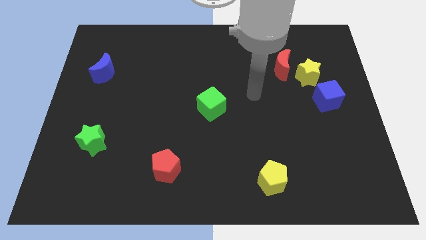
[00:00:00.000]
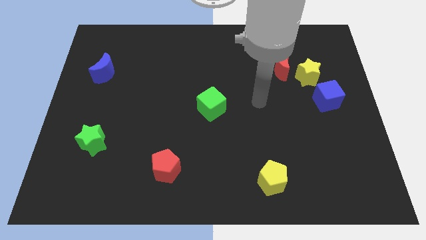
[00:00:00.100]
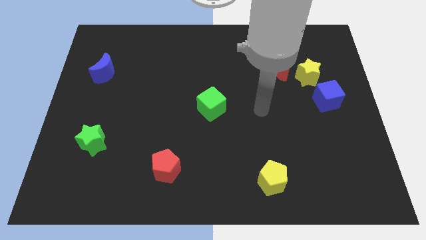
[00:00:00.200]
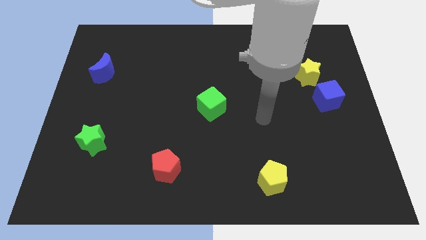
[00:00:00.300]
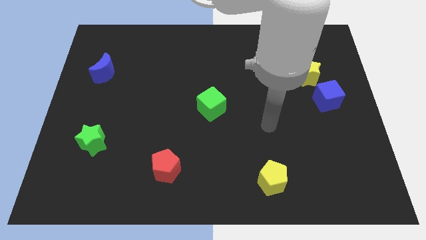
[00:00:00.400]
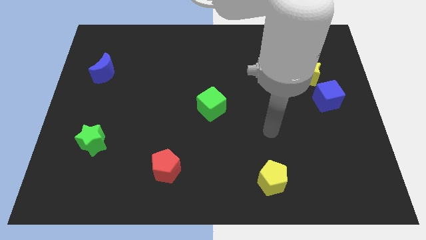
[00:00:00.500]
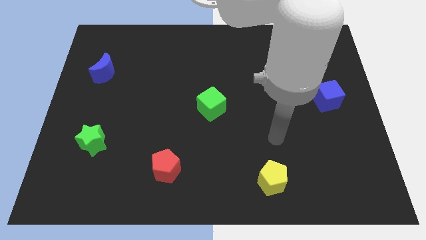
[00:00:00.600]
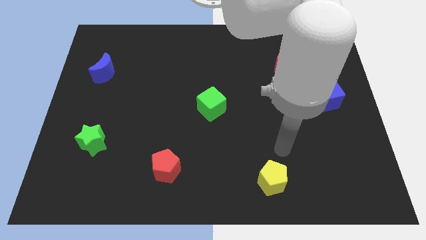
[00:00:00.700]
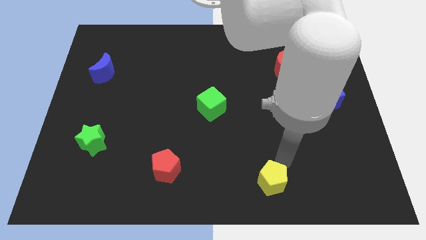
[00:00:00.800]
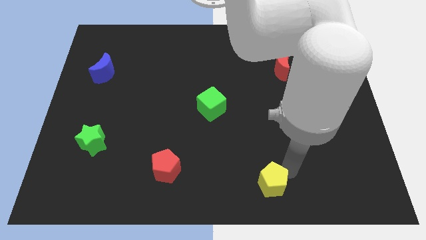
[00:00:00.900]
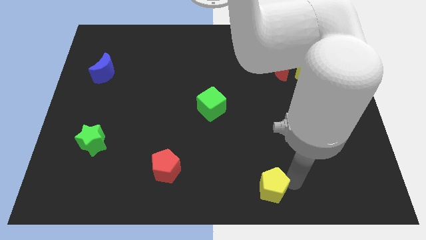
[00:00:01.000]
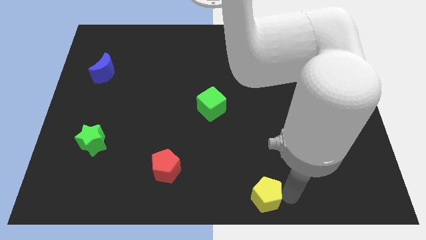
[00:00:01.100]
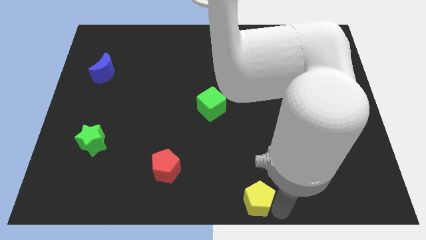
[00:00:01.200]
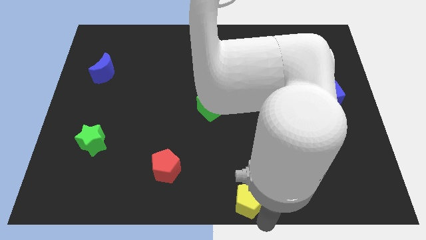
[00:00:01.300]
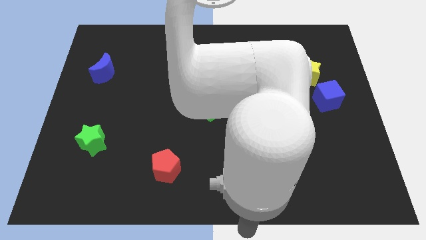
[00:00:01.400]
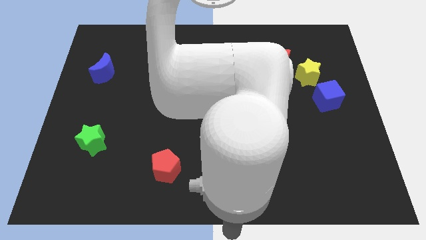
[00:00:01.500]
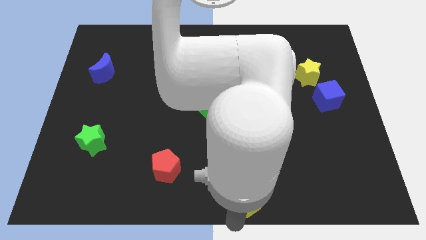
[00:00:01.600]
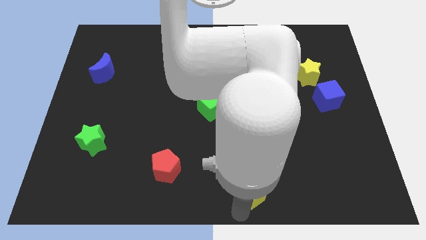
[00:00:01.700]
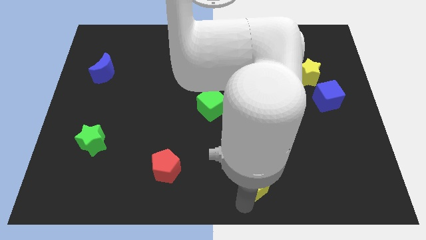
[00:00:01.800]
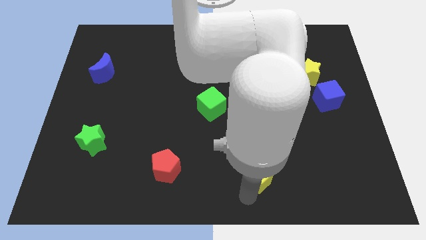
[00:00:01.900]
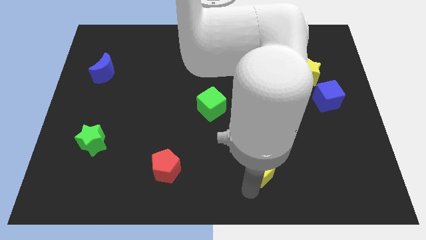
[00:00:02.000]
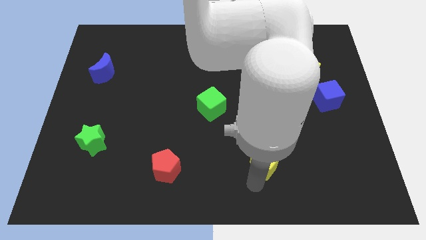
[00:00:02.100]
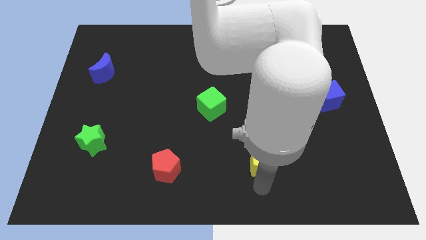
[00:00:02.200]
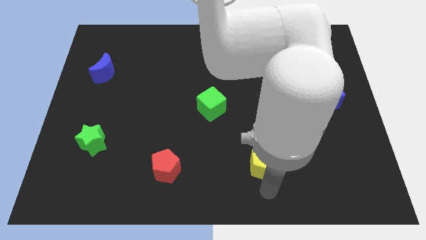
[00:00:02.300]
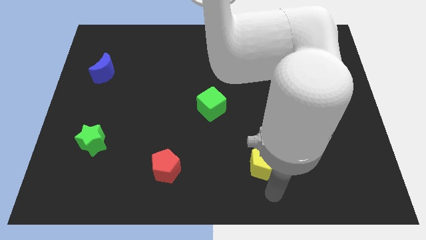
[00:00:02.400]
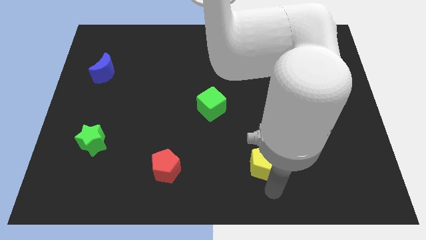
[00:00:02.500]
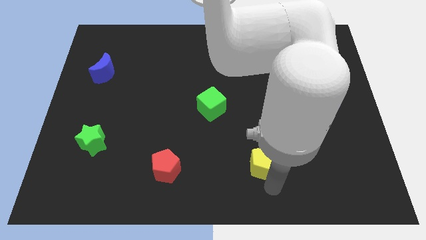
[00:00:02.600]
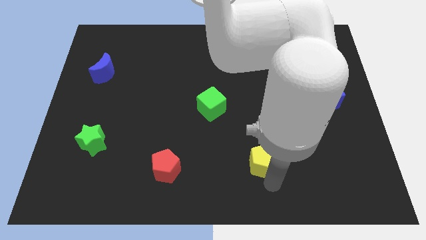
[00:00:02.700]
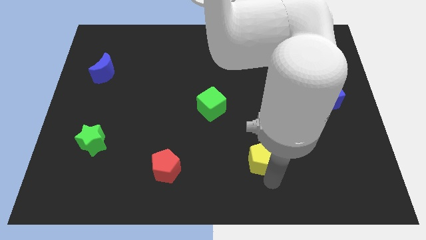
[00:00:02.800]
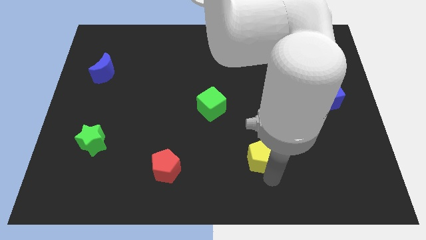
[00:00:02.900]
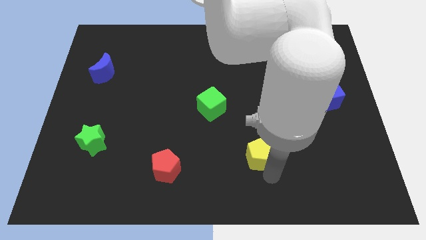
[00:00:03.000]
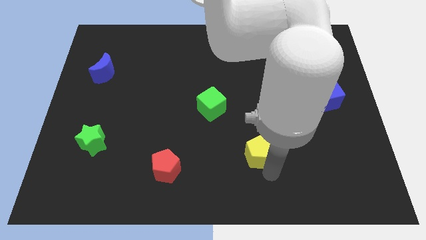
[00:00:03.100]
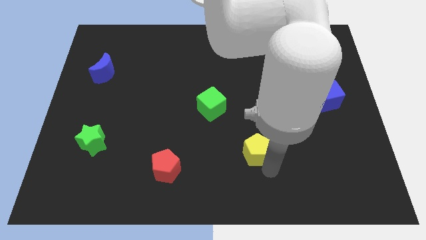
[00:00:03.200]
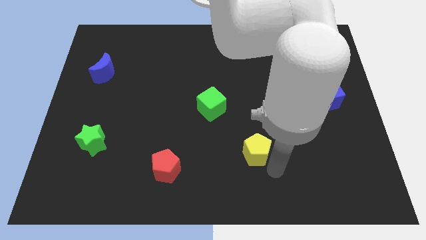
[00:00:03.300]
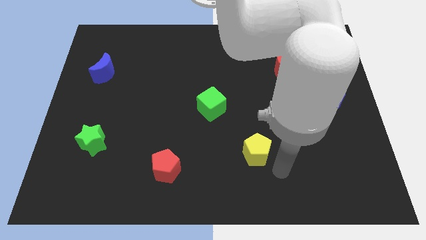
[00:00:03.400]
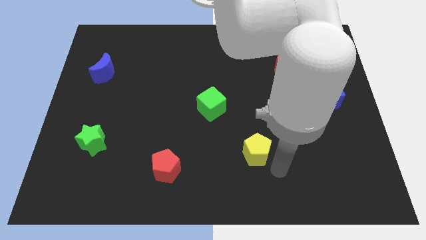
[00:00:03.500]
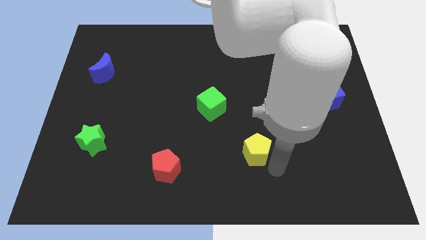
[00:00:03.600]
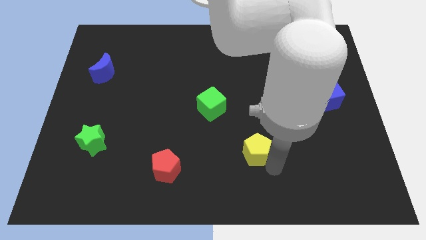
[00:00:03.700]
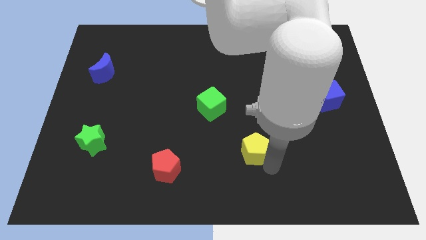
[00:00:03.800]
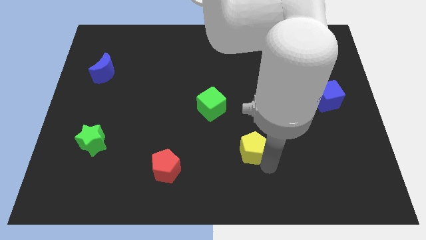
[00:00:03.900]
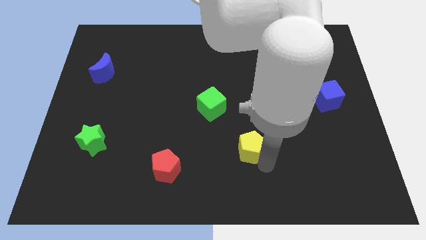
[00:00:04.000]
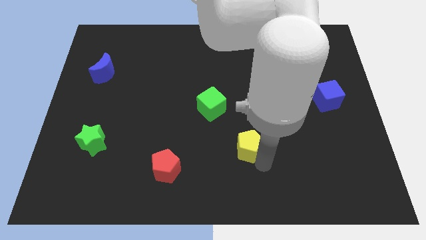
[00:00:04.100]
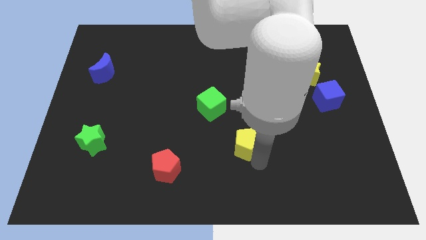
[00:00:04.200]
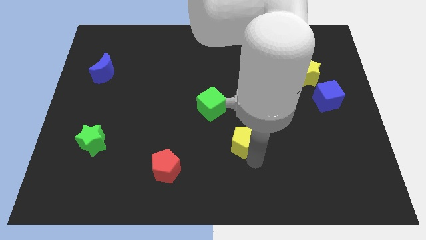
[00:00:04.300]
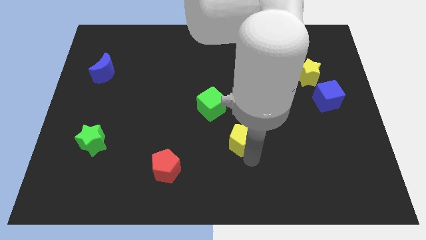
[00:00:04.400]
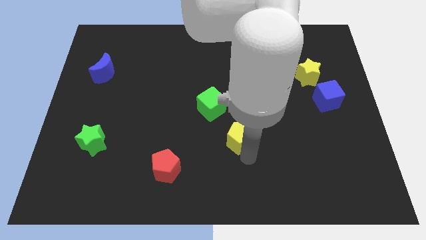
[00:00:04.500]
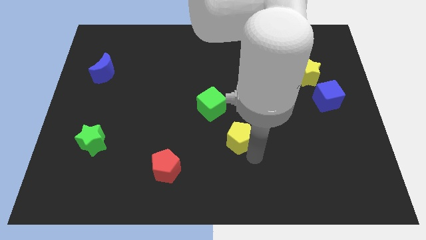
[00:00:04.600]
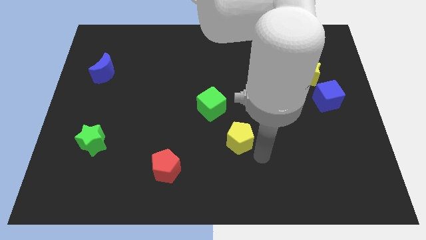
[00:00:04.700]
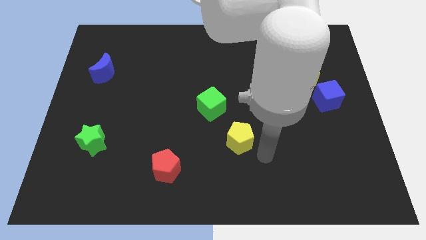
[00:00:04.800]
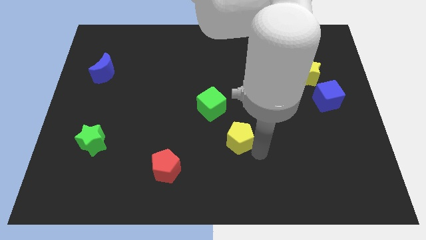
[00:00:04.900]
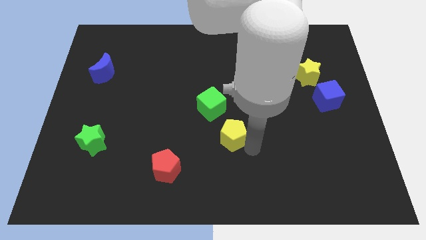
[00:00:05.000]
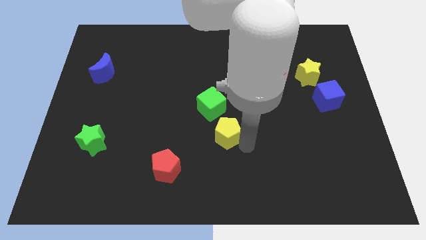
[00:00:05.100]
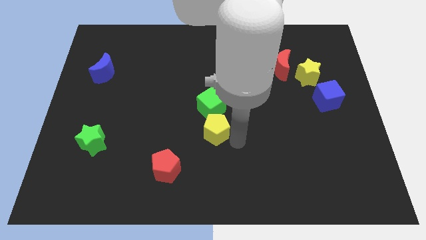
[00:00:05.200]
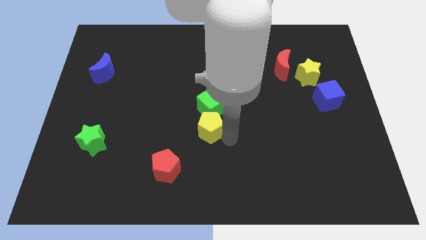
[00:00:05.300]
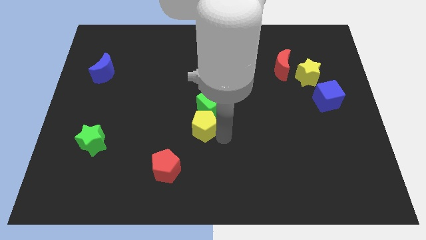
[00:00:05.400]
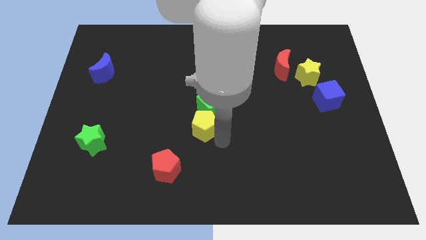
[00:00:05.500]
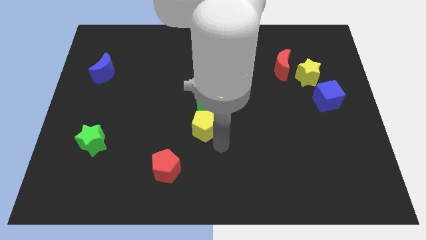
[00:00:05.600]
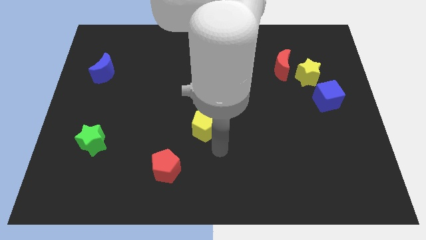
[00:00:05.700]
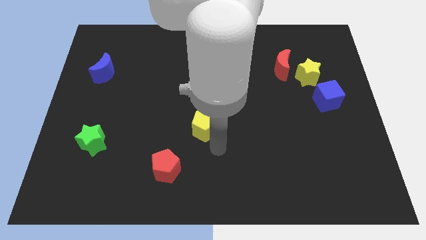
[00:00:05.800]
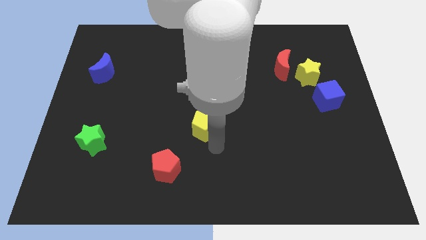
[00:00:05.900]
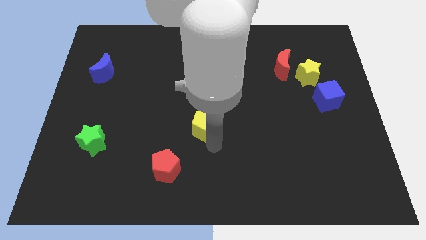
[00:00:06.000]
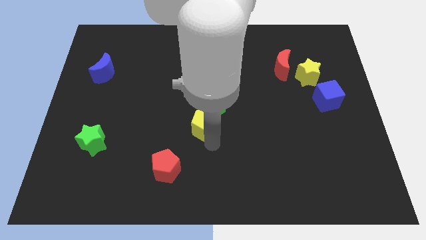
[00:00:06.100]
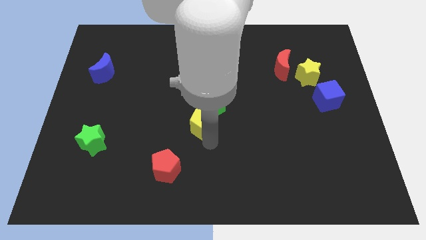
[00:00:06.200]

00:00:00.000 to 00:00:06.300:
push the yellow pentagon diagonally upwards and left

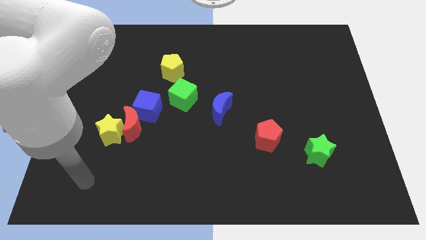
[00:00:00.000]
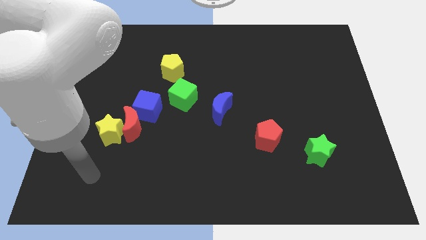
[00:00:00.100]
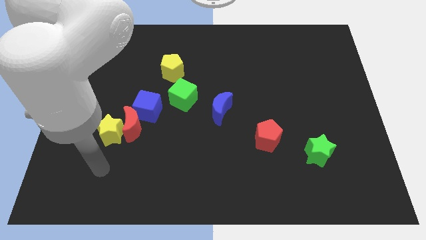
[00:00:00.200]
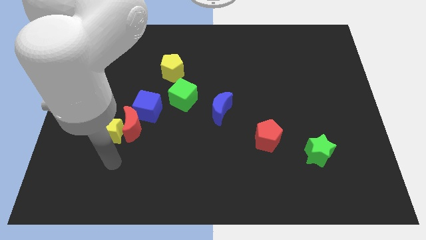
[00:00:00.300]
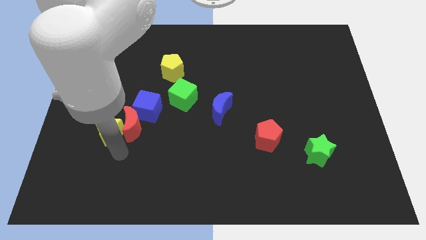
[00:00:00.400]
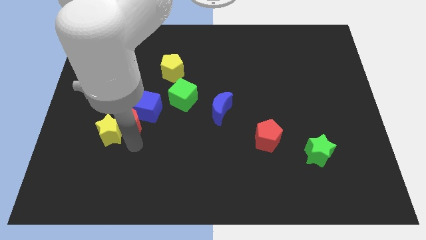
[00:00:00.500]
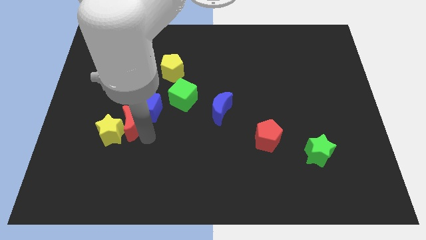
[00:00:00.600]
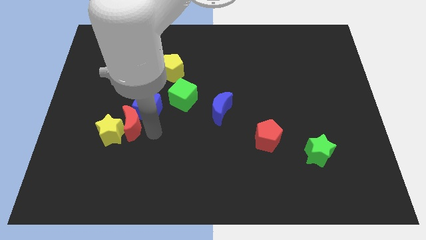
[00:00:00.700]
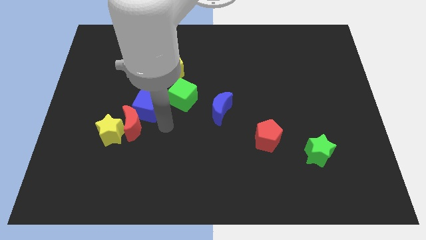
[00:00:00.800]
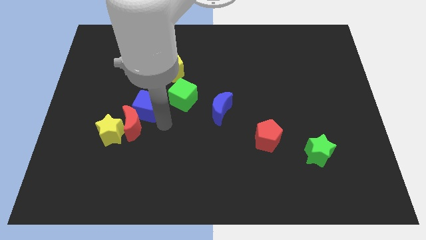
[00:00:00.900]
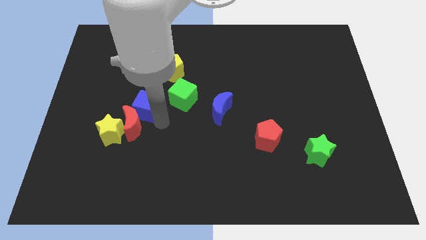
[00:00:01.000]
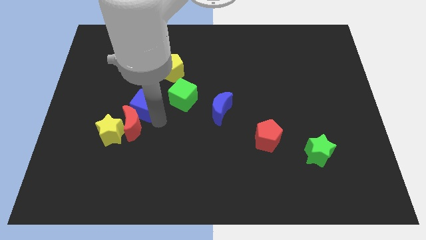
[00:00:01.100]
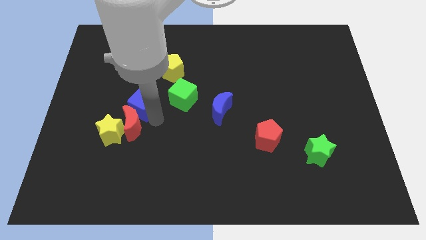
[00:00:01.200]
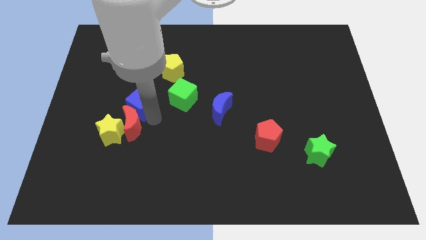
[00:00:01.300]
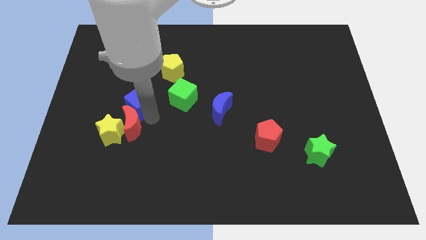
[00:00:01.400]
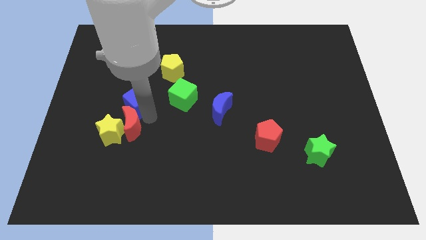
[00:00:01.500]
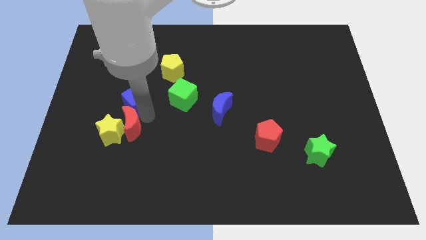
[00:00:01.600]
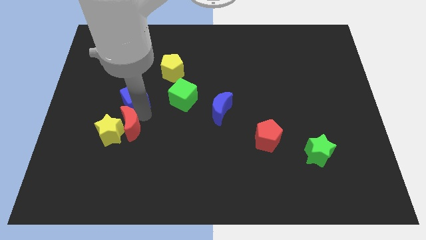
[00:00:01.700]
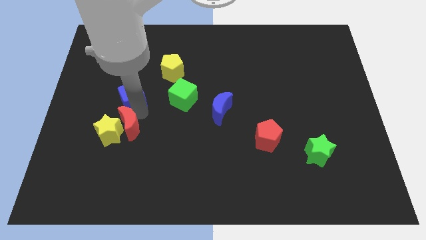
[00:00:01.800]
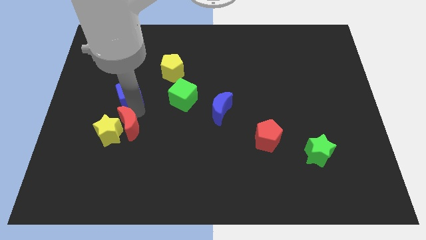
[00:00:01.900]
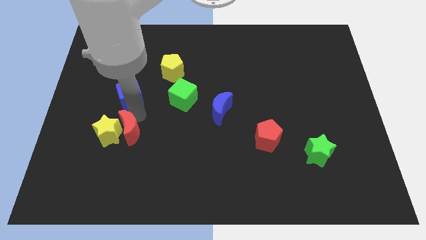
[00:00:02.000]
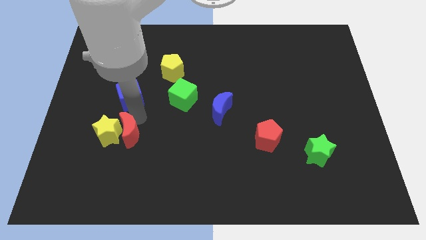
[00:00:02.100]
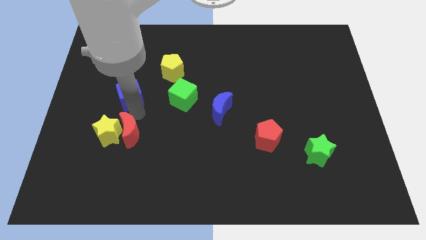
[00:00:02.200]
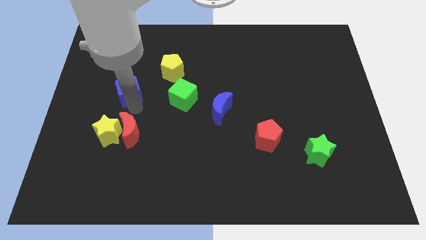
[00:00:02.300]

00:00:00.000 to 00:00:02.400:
slightly push the blue cube up and left diagonally
